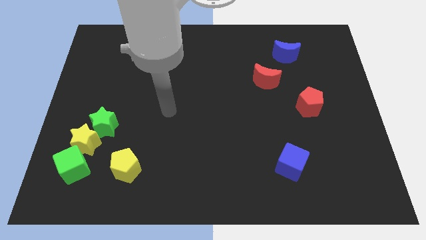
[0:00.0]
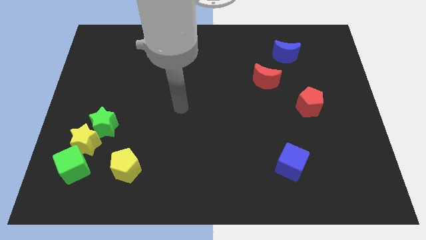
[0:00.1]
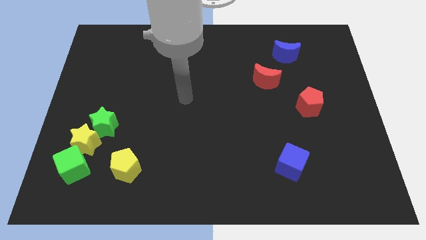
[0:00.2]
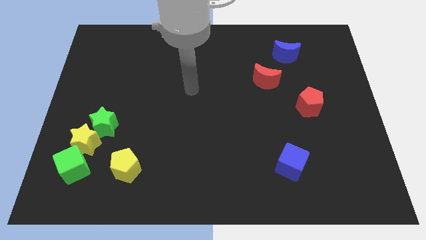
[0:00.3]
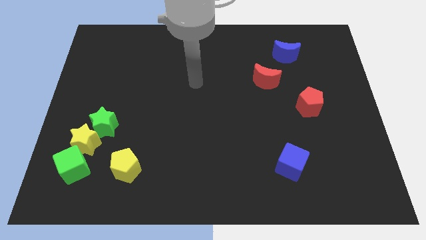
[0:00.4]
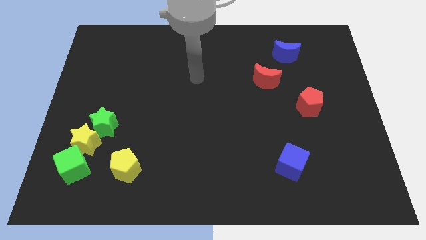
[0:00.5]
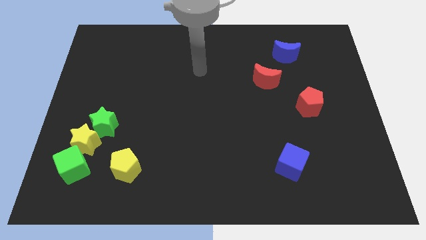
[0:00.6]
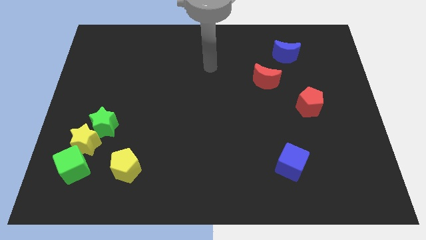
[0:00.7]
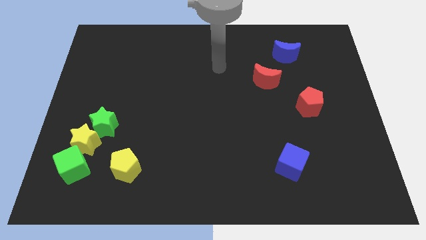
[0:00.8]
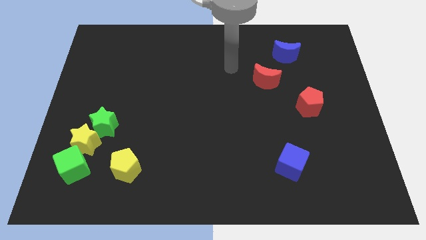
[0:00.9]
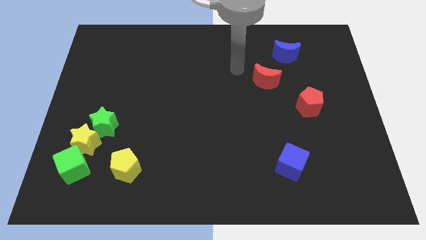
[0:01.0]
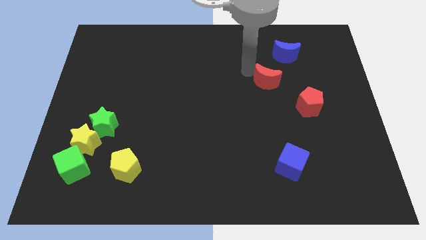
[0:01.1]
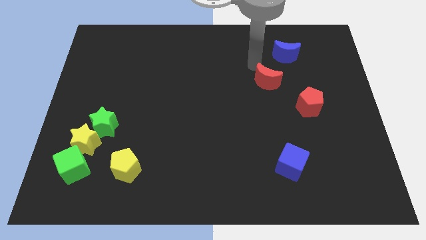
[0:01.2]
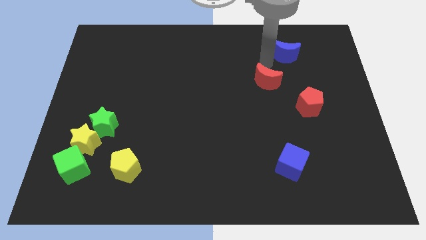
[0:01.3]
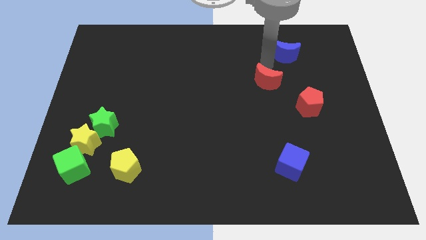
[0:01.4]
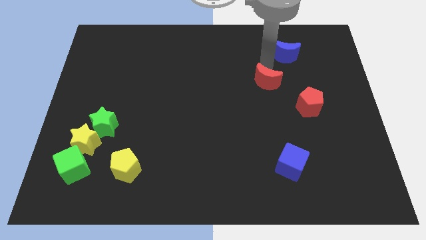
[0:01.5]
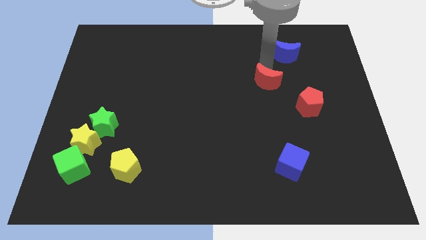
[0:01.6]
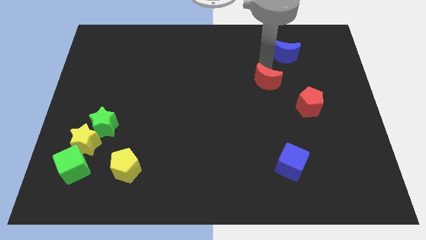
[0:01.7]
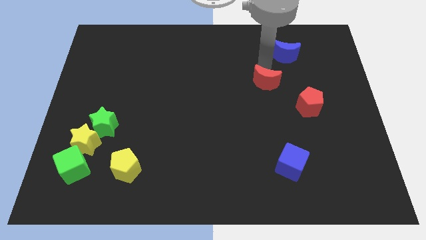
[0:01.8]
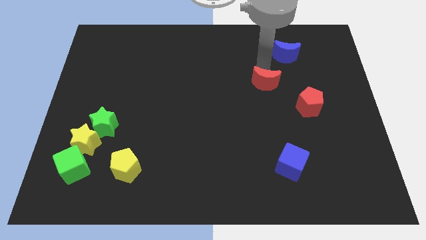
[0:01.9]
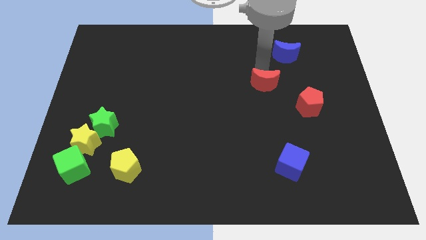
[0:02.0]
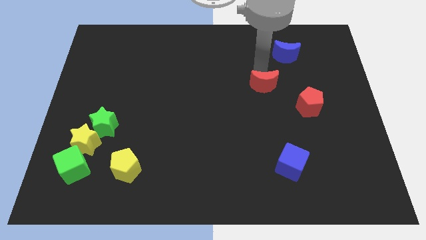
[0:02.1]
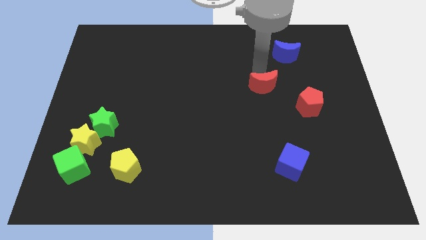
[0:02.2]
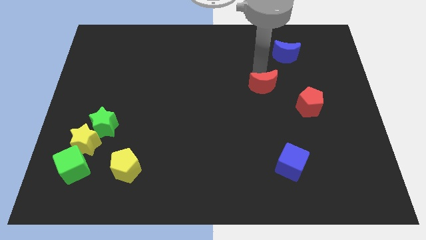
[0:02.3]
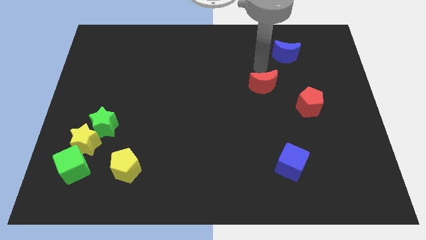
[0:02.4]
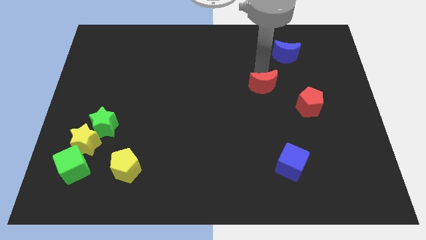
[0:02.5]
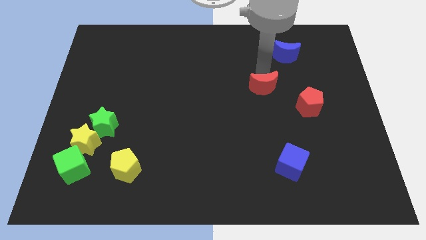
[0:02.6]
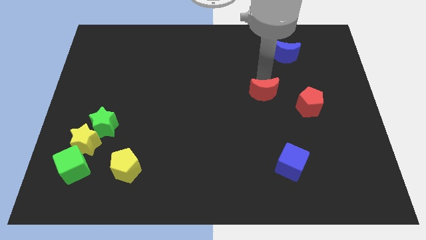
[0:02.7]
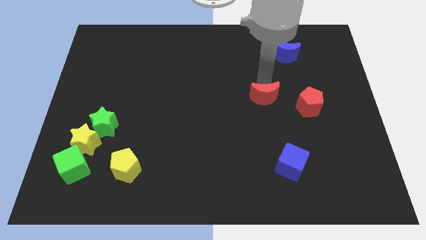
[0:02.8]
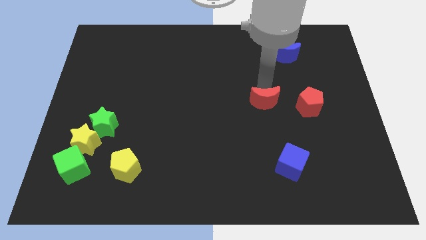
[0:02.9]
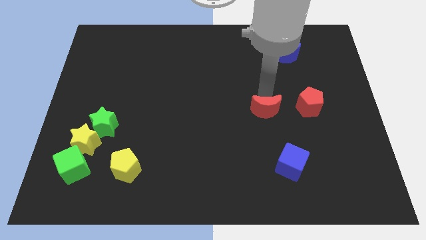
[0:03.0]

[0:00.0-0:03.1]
slide the red moon down slightly

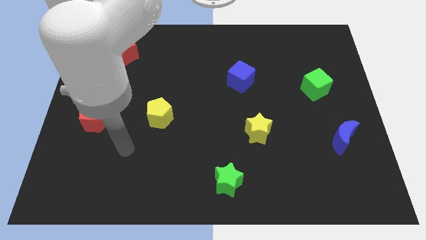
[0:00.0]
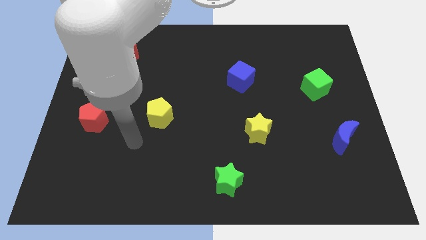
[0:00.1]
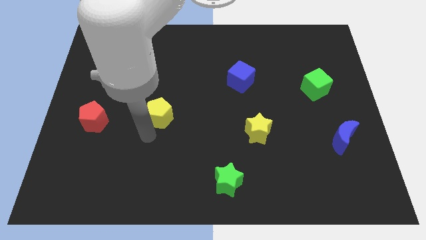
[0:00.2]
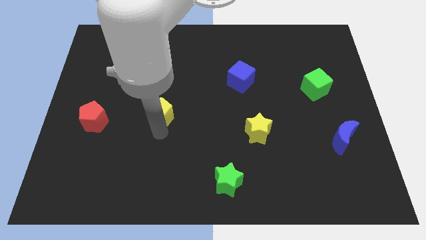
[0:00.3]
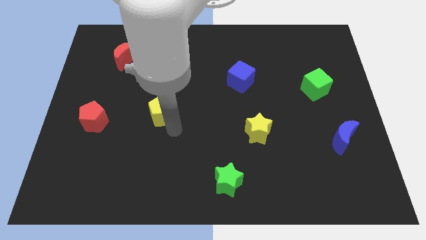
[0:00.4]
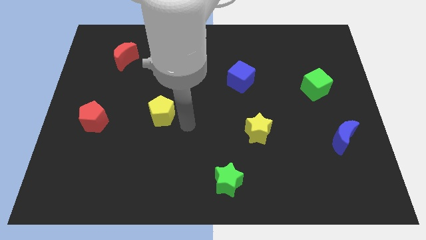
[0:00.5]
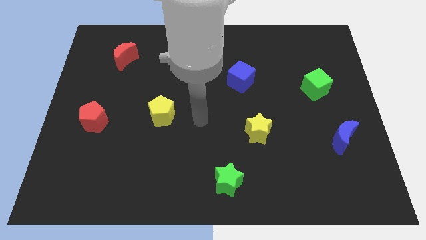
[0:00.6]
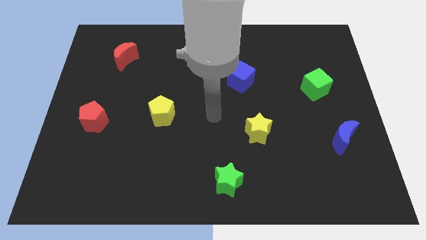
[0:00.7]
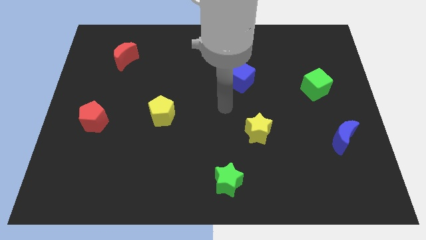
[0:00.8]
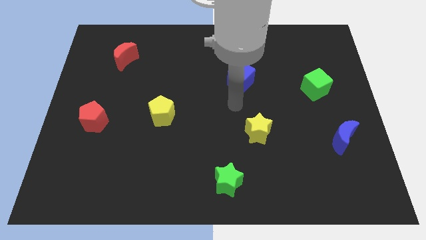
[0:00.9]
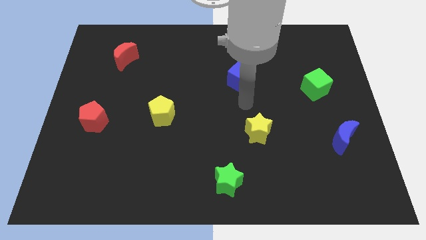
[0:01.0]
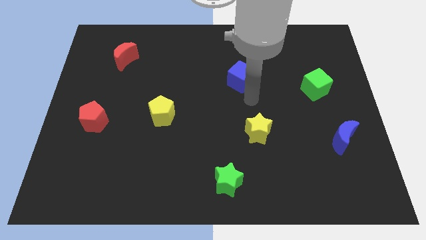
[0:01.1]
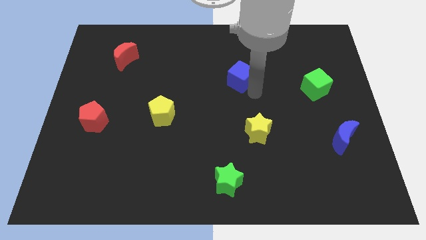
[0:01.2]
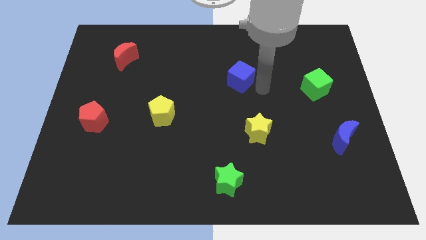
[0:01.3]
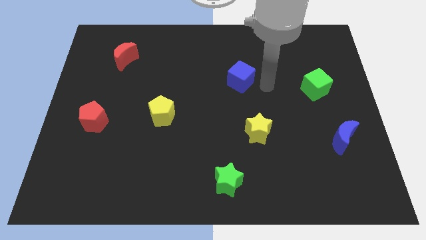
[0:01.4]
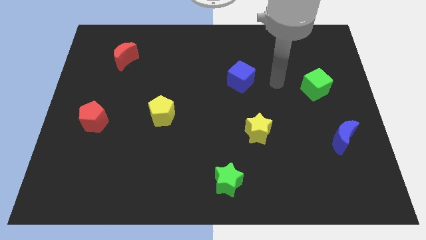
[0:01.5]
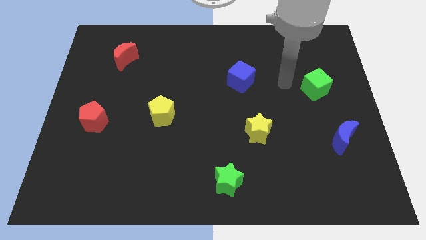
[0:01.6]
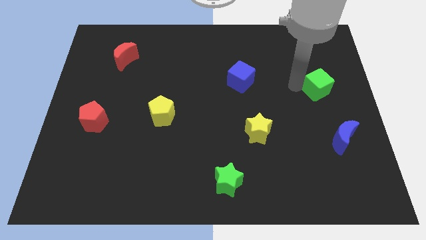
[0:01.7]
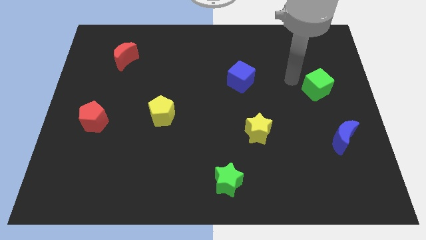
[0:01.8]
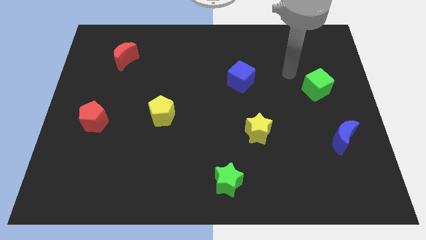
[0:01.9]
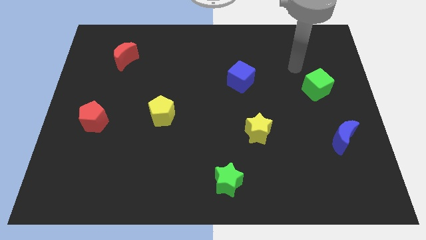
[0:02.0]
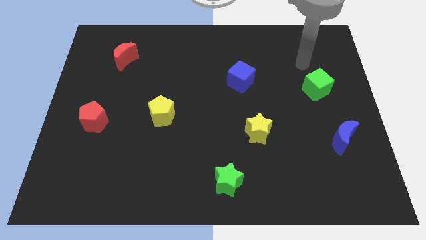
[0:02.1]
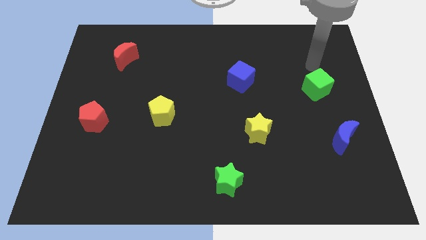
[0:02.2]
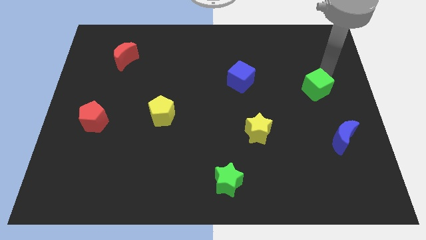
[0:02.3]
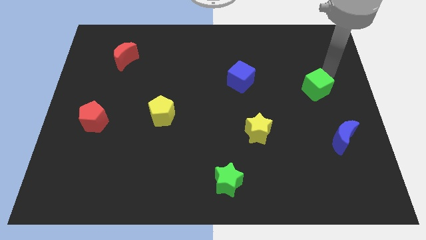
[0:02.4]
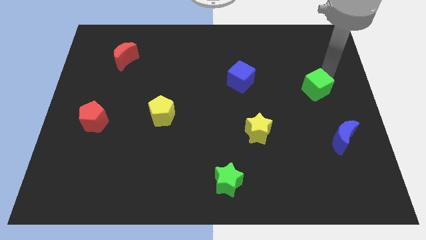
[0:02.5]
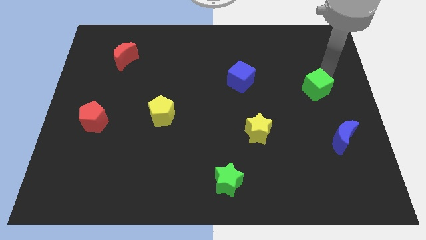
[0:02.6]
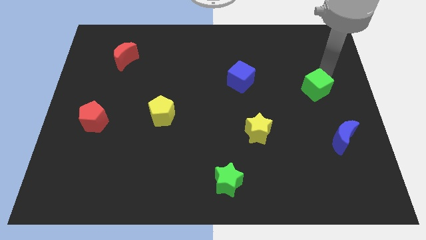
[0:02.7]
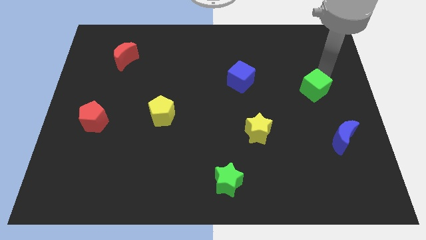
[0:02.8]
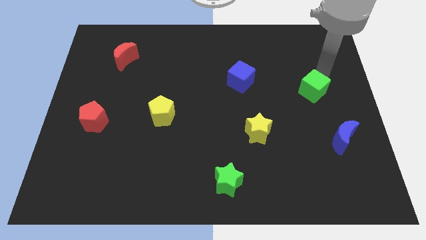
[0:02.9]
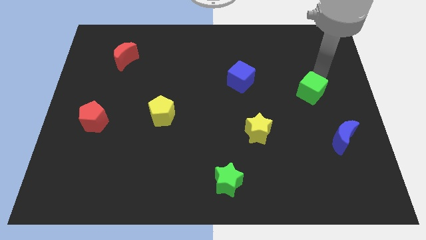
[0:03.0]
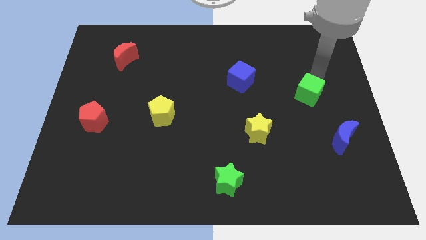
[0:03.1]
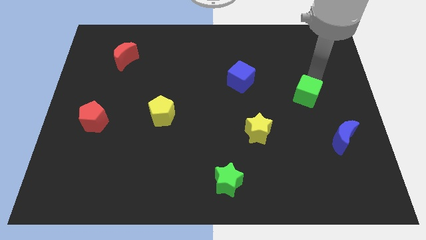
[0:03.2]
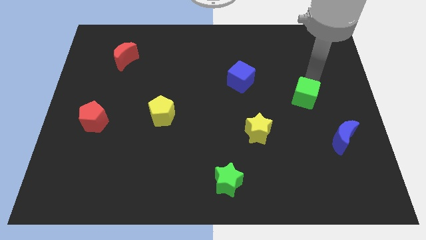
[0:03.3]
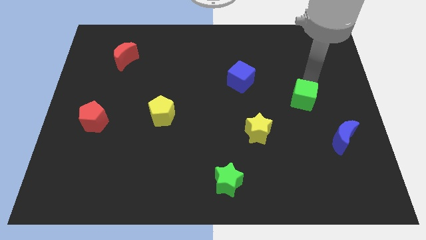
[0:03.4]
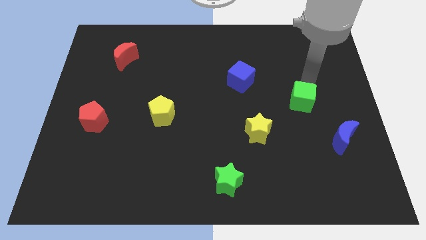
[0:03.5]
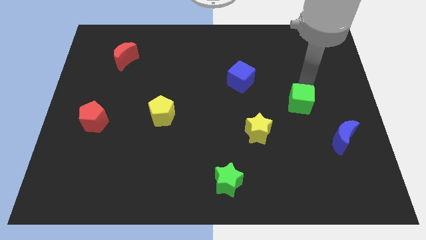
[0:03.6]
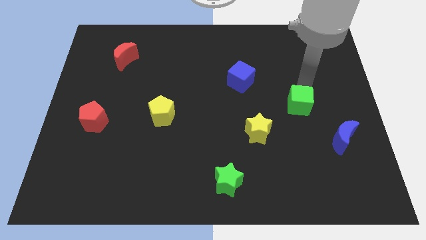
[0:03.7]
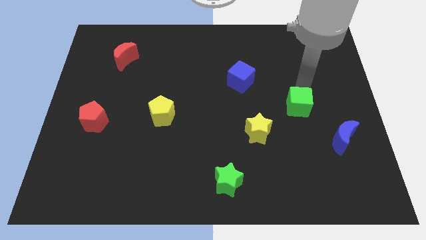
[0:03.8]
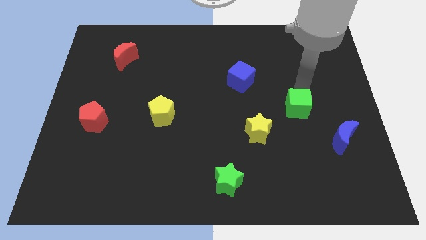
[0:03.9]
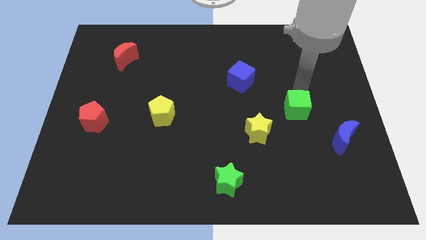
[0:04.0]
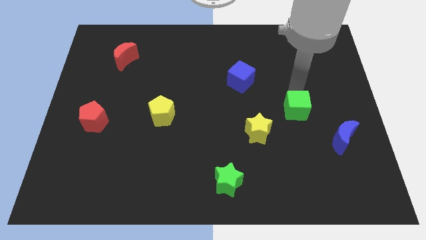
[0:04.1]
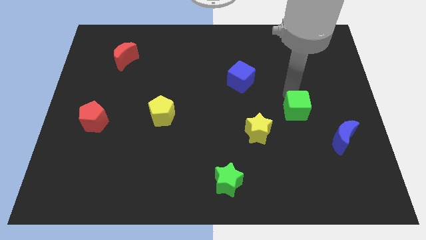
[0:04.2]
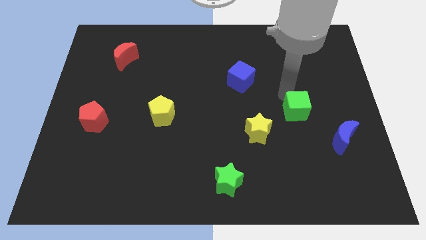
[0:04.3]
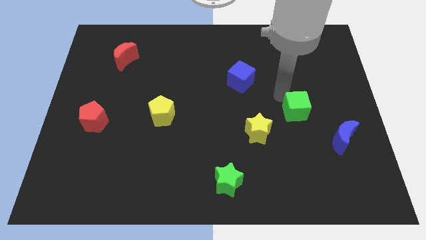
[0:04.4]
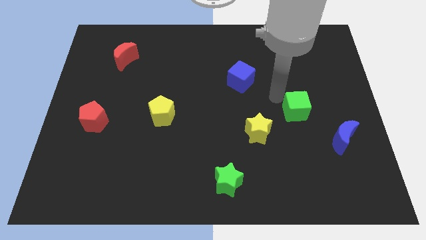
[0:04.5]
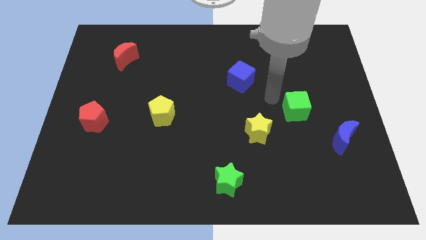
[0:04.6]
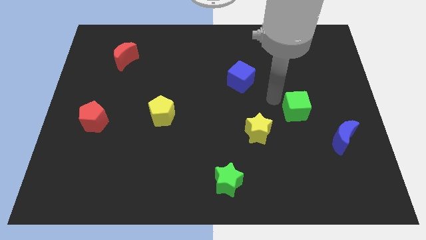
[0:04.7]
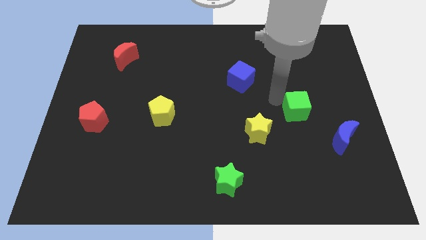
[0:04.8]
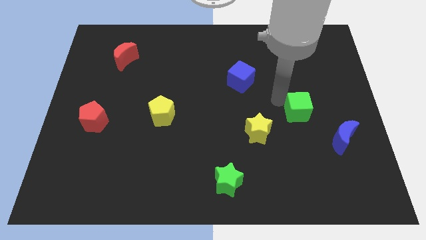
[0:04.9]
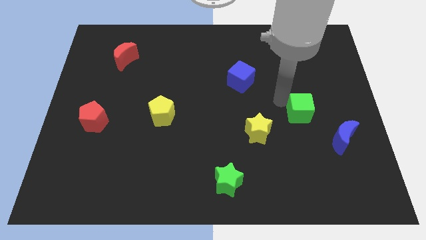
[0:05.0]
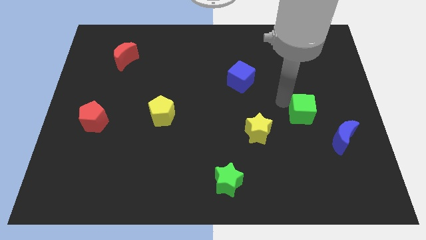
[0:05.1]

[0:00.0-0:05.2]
push the green cube down somewhat

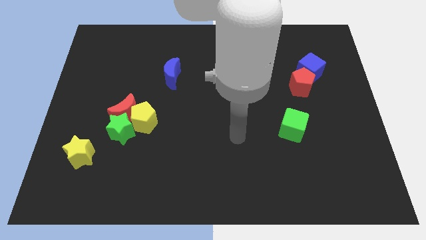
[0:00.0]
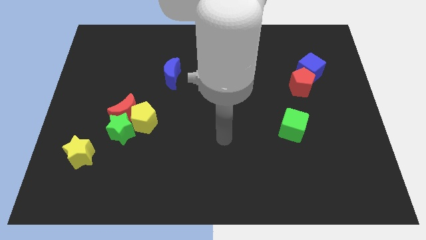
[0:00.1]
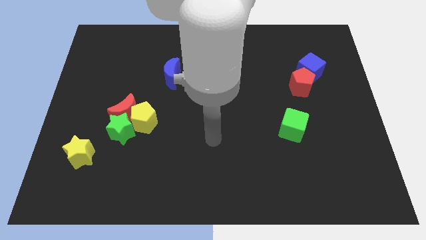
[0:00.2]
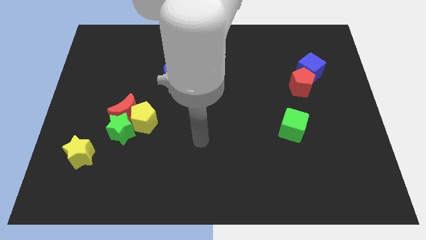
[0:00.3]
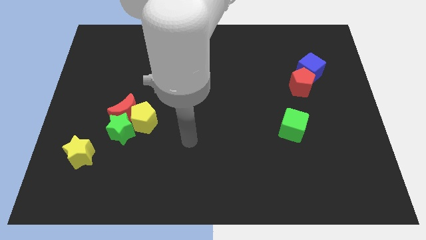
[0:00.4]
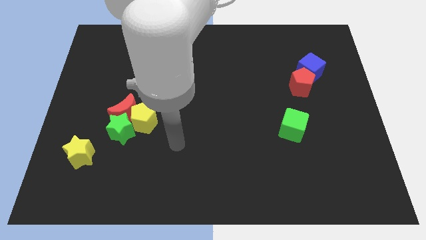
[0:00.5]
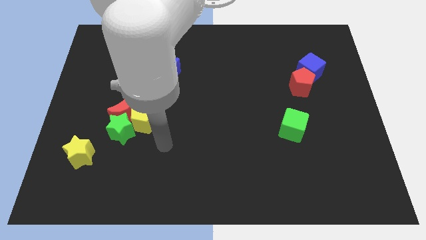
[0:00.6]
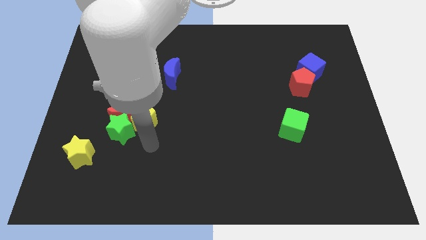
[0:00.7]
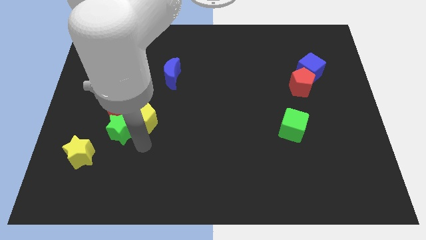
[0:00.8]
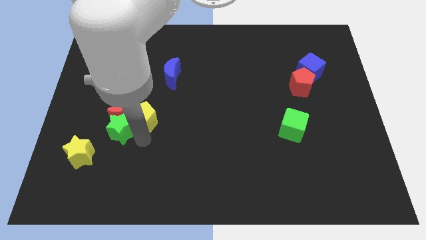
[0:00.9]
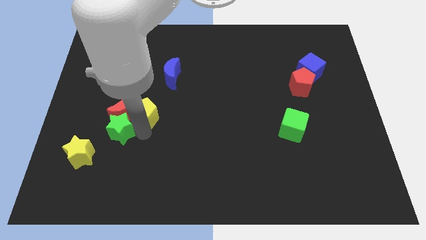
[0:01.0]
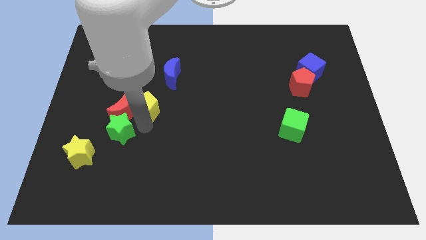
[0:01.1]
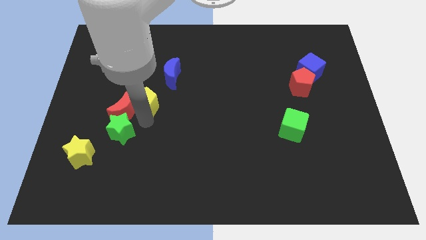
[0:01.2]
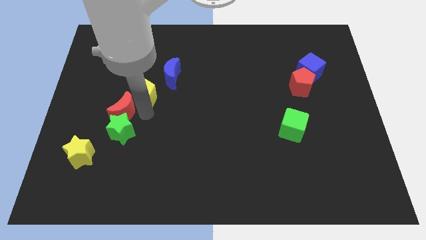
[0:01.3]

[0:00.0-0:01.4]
slide the yellow pentagon up a bit
